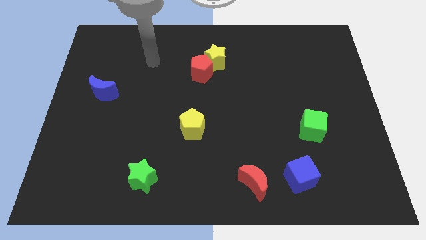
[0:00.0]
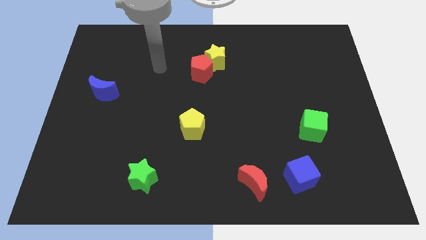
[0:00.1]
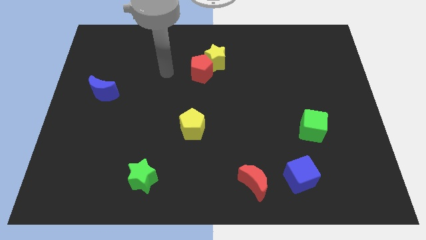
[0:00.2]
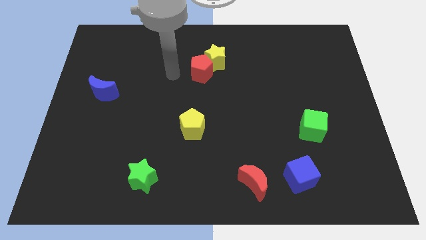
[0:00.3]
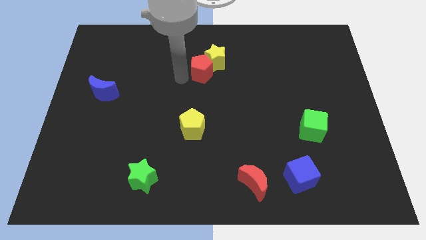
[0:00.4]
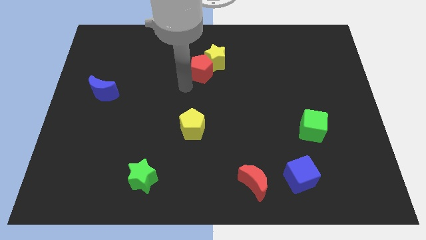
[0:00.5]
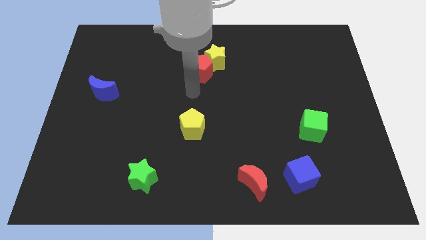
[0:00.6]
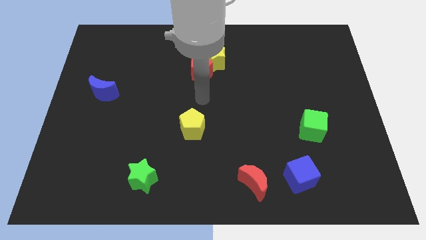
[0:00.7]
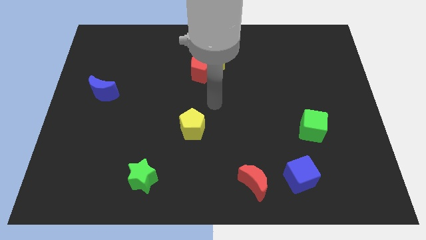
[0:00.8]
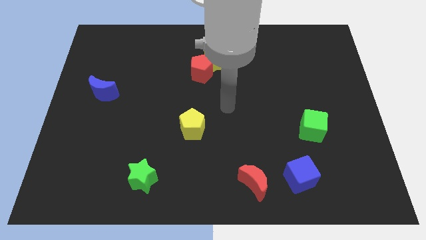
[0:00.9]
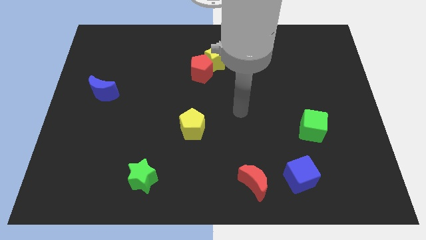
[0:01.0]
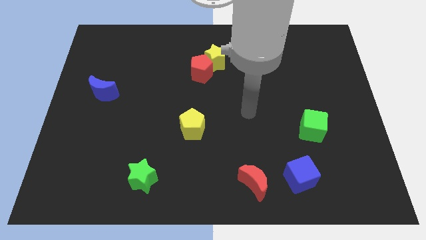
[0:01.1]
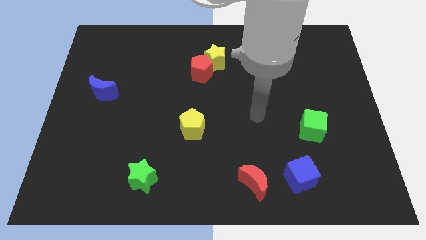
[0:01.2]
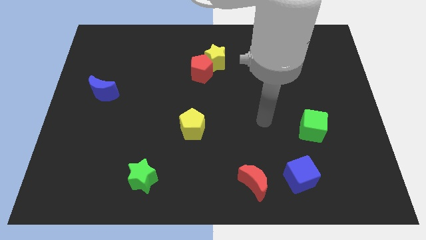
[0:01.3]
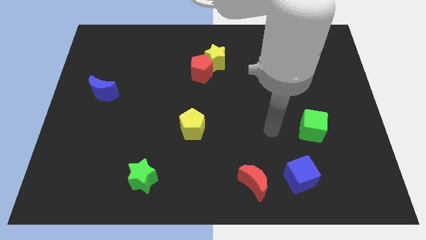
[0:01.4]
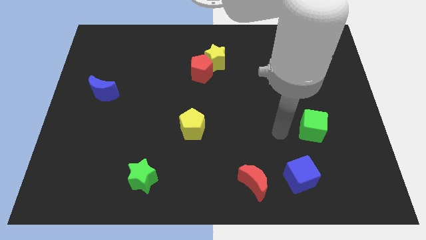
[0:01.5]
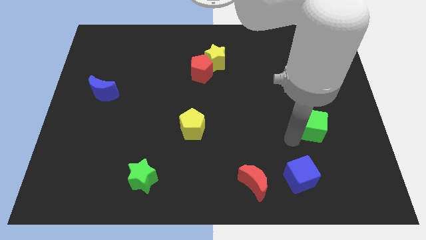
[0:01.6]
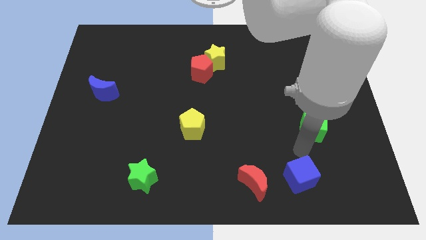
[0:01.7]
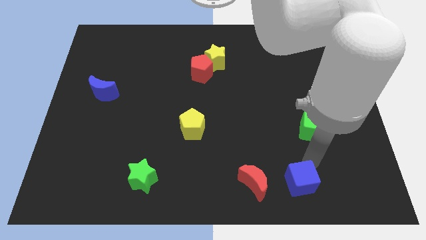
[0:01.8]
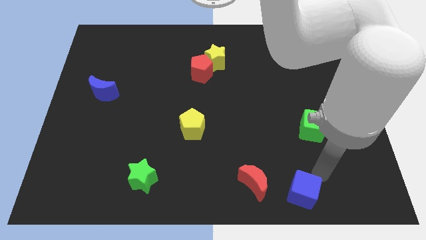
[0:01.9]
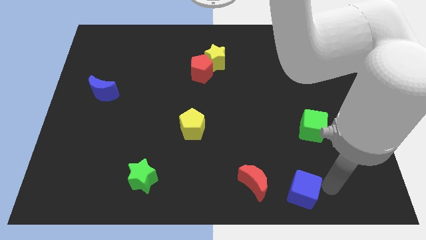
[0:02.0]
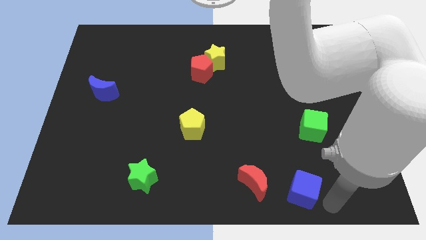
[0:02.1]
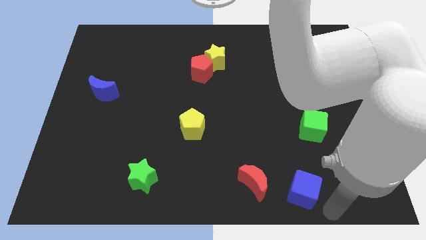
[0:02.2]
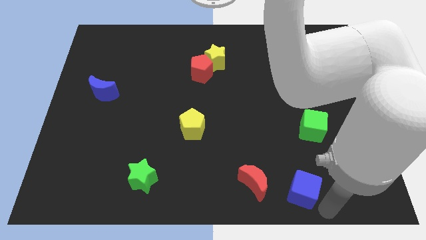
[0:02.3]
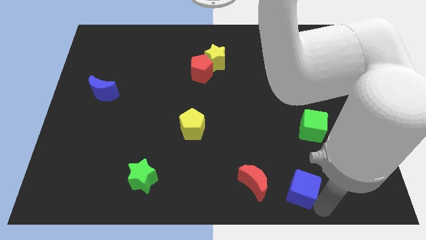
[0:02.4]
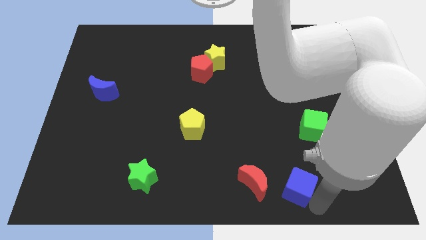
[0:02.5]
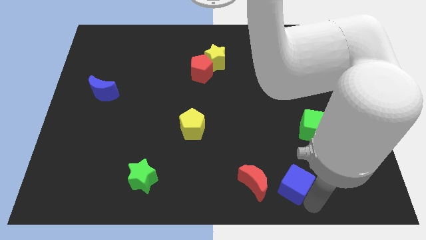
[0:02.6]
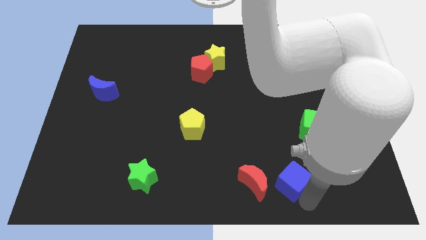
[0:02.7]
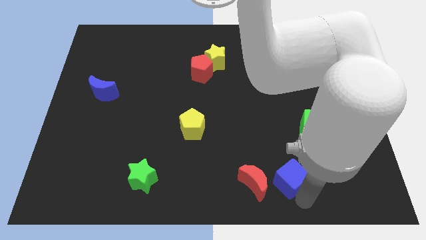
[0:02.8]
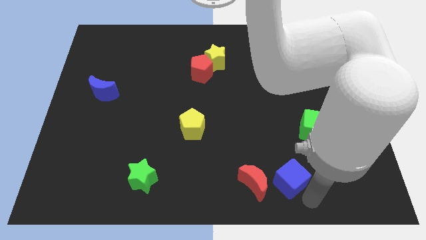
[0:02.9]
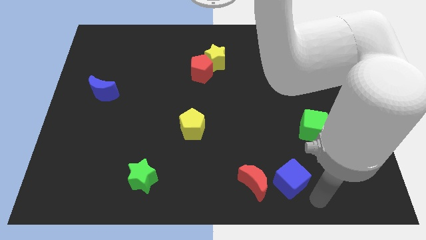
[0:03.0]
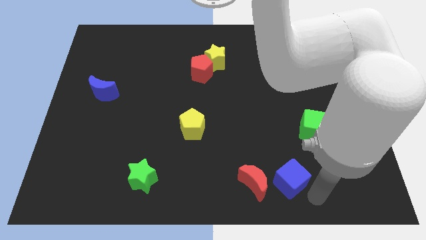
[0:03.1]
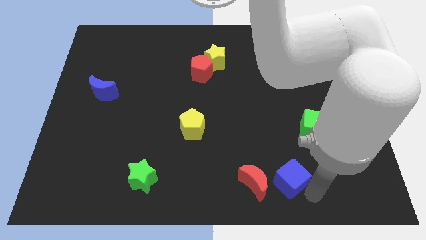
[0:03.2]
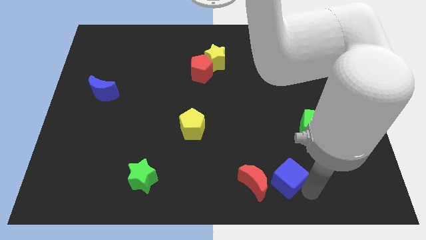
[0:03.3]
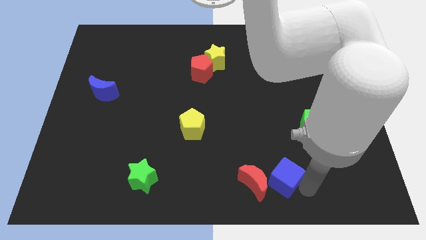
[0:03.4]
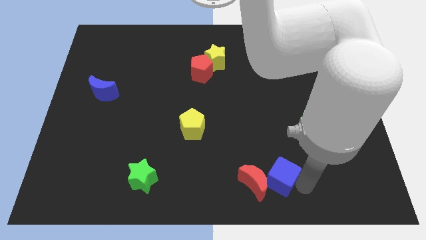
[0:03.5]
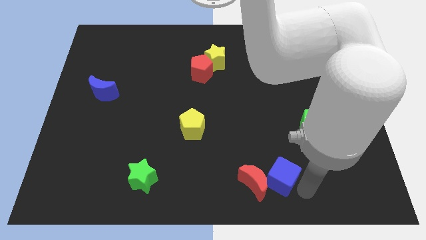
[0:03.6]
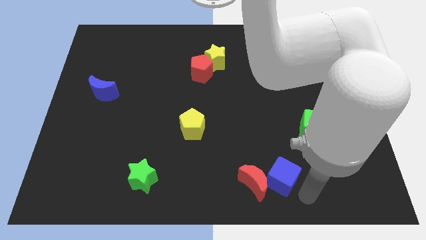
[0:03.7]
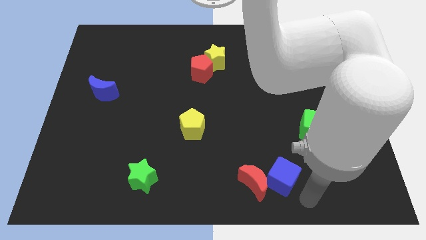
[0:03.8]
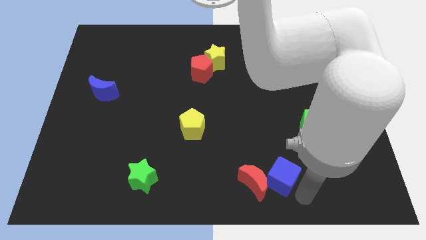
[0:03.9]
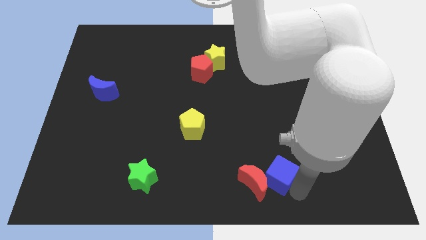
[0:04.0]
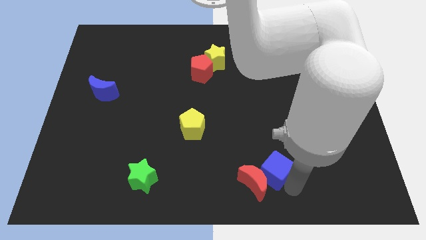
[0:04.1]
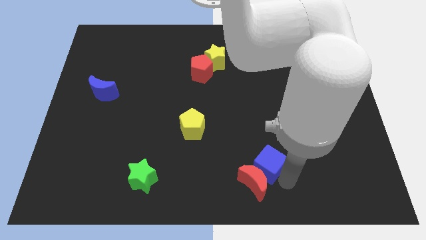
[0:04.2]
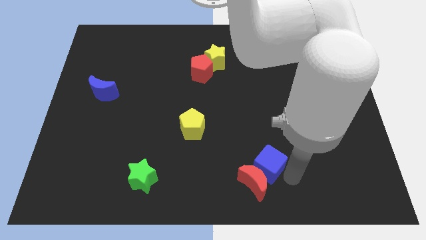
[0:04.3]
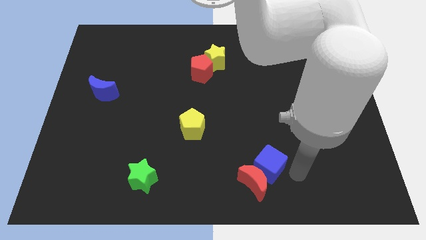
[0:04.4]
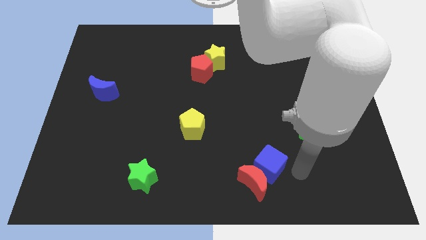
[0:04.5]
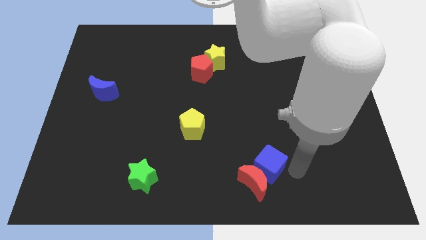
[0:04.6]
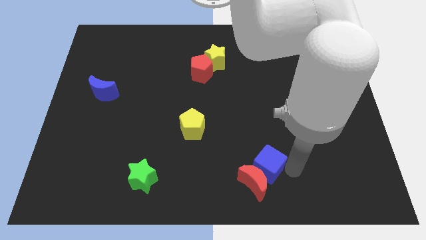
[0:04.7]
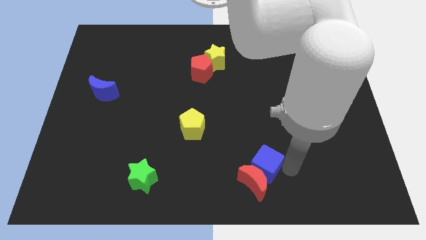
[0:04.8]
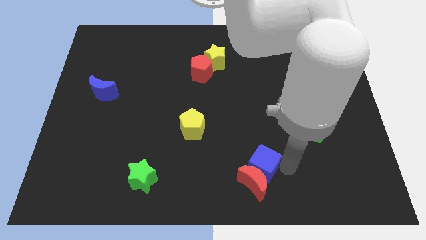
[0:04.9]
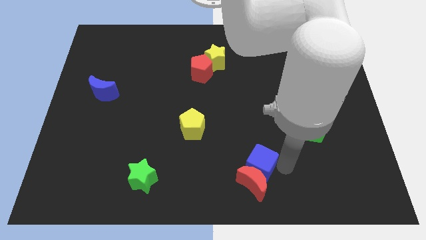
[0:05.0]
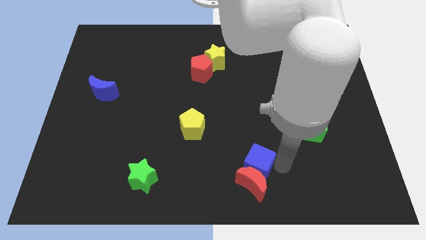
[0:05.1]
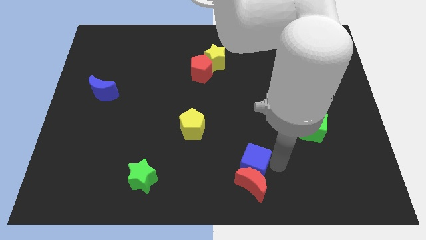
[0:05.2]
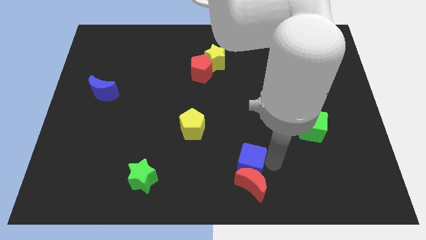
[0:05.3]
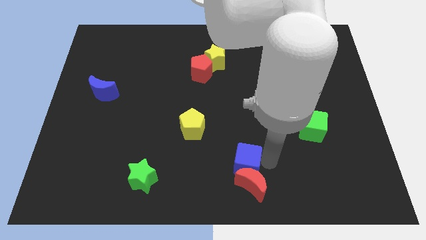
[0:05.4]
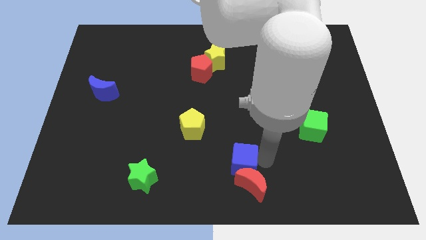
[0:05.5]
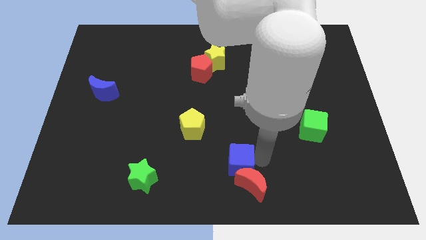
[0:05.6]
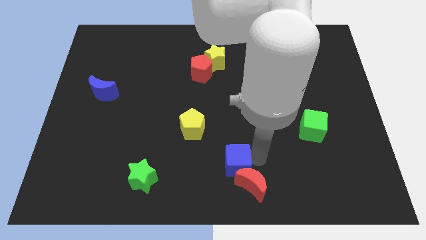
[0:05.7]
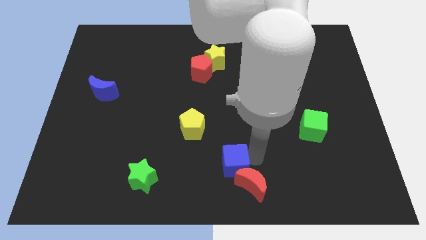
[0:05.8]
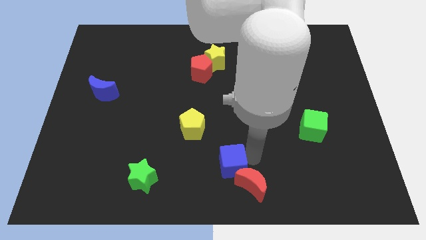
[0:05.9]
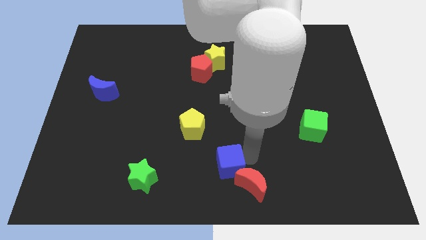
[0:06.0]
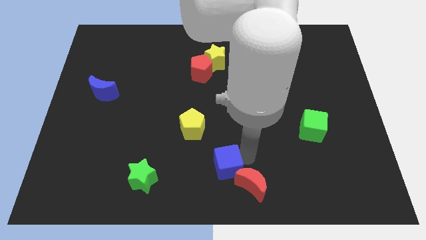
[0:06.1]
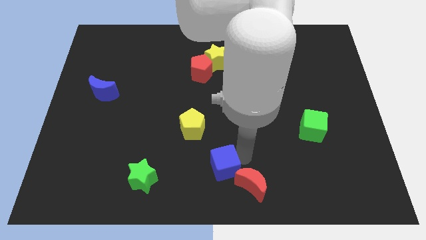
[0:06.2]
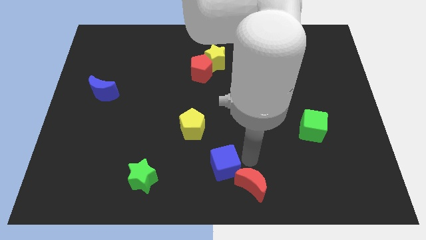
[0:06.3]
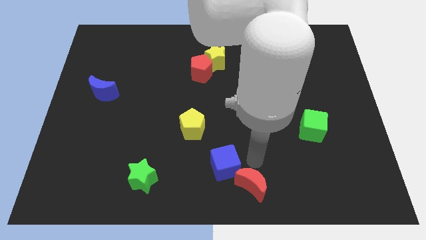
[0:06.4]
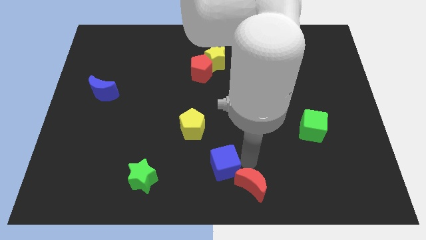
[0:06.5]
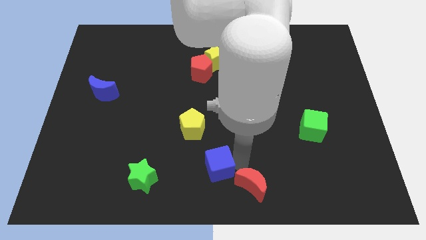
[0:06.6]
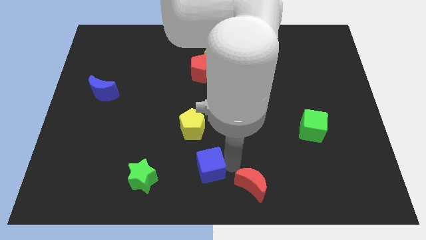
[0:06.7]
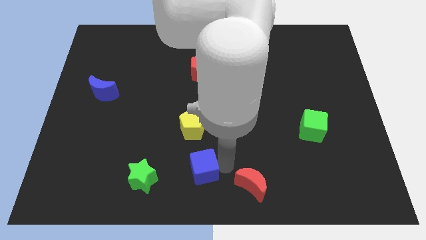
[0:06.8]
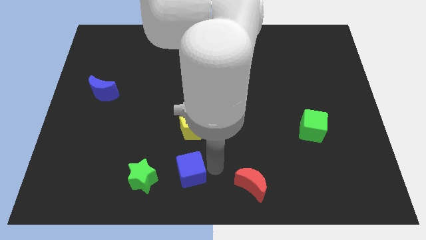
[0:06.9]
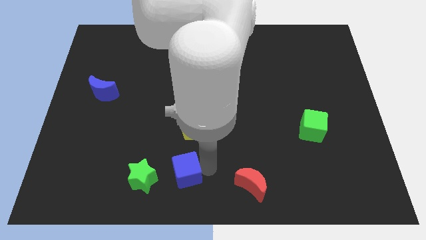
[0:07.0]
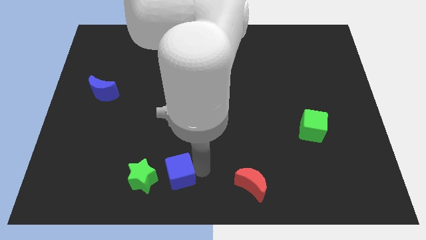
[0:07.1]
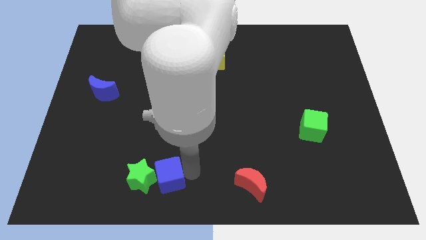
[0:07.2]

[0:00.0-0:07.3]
slide the blue cube close to the green star
